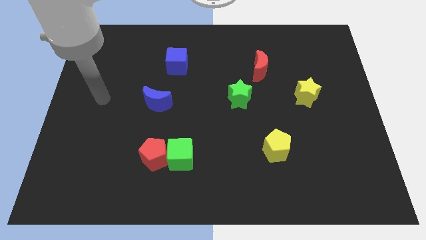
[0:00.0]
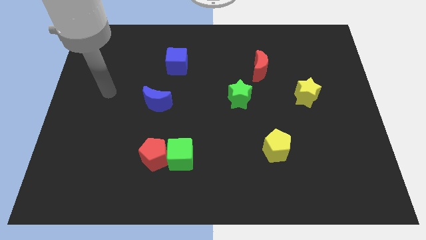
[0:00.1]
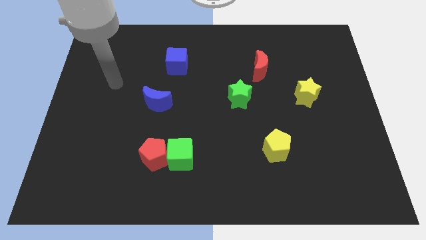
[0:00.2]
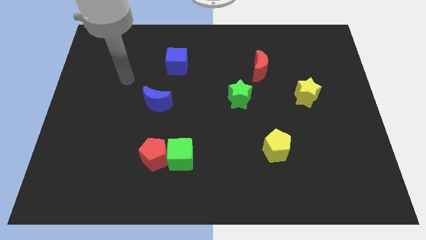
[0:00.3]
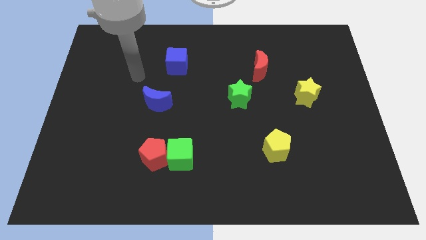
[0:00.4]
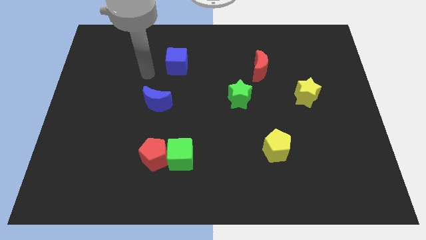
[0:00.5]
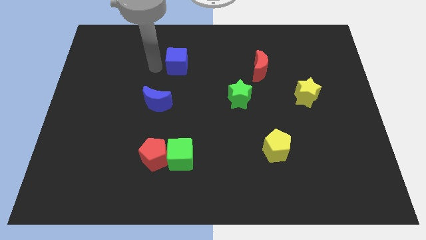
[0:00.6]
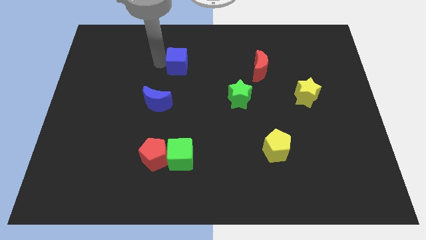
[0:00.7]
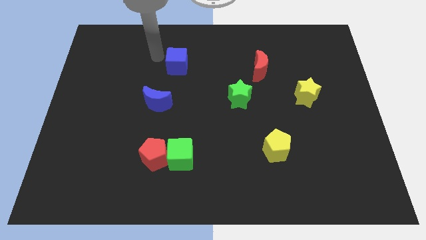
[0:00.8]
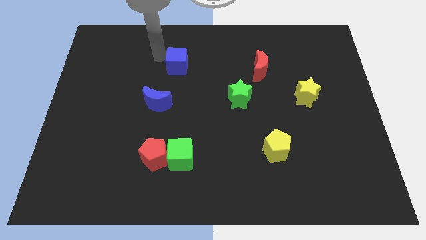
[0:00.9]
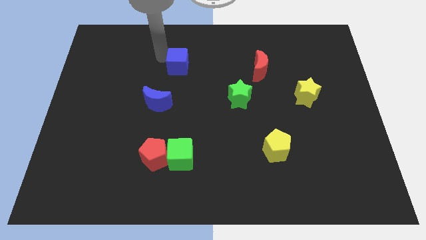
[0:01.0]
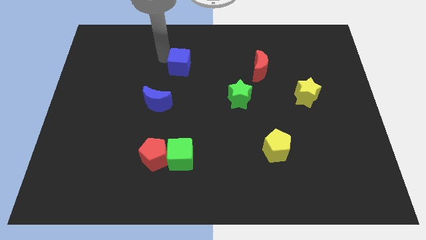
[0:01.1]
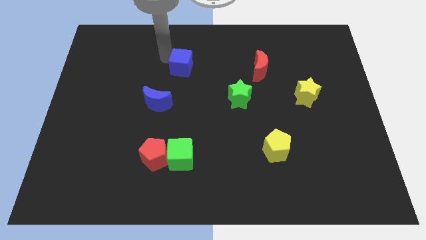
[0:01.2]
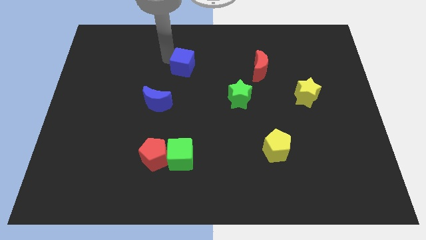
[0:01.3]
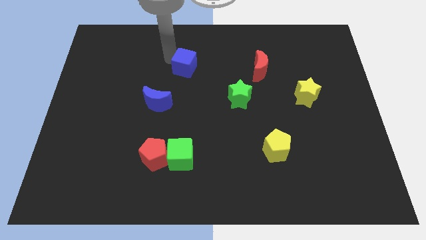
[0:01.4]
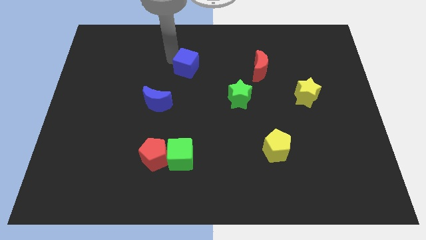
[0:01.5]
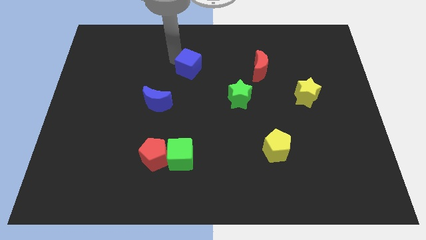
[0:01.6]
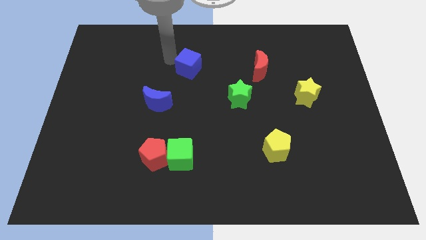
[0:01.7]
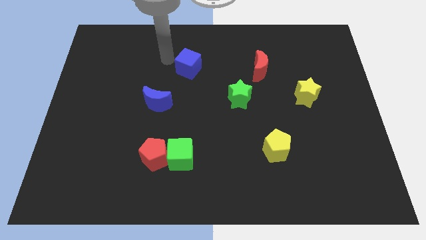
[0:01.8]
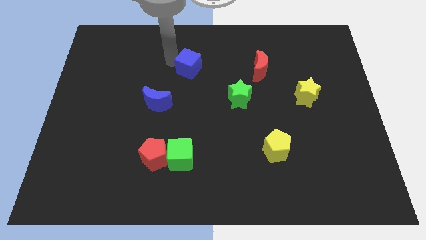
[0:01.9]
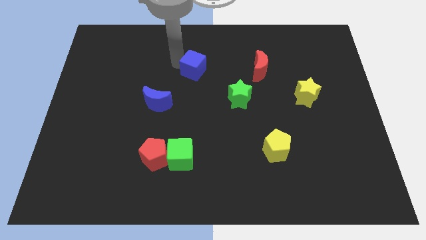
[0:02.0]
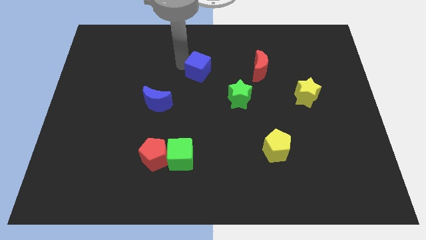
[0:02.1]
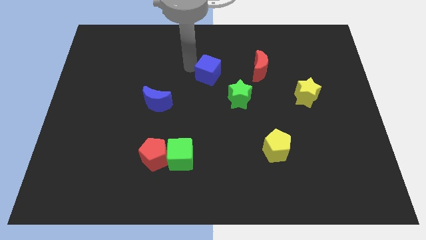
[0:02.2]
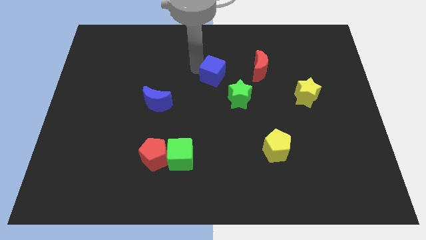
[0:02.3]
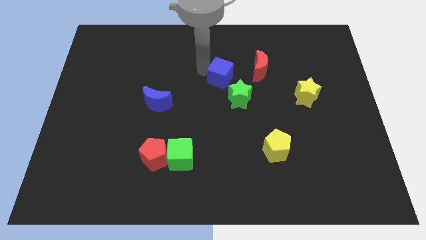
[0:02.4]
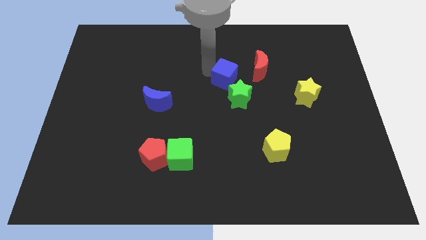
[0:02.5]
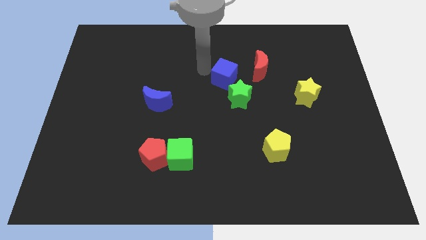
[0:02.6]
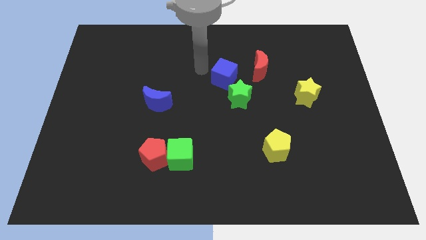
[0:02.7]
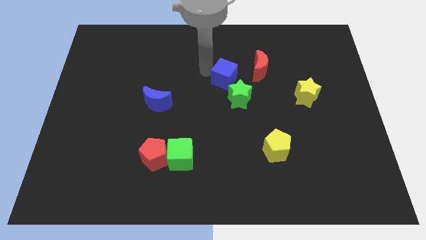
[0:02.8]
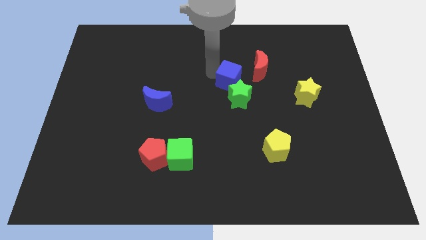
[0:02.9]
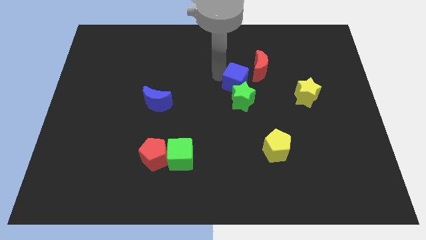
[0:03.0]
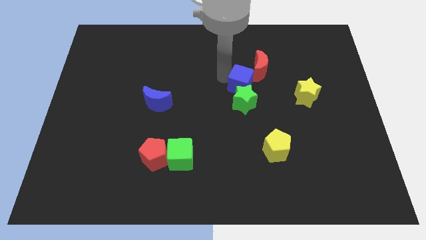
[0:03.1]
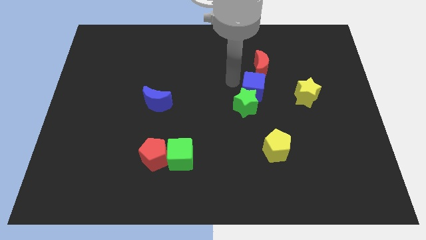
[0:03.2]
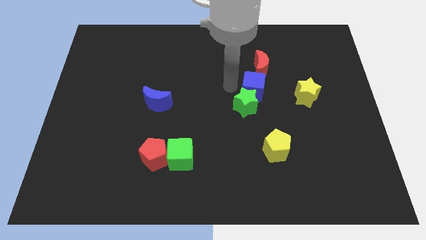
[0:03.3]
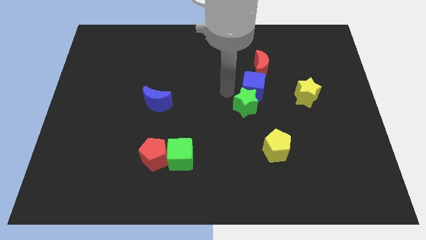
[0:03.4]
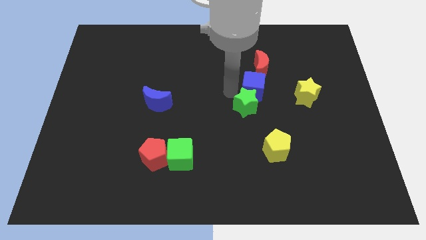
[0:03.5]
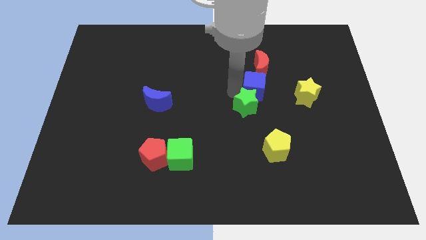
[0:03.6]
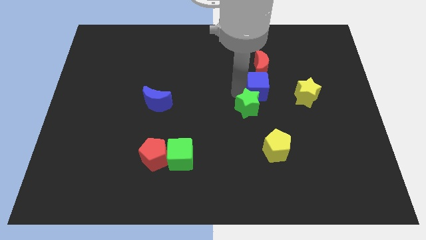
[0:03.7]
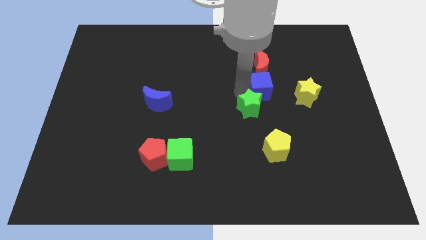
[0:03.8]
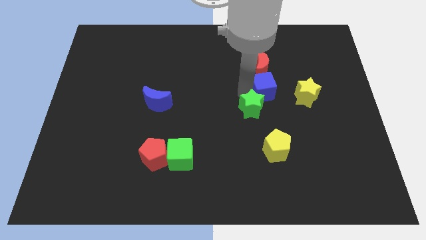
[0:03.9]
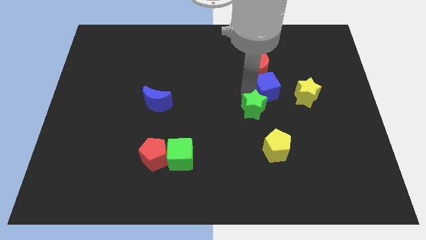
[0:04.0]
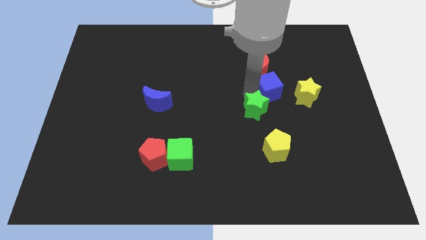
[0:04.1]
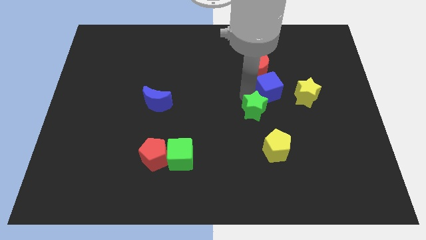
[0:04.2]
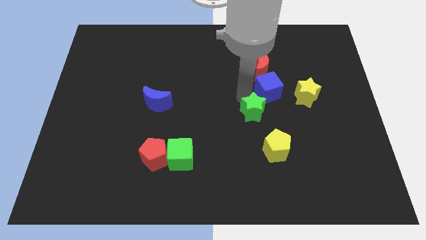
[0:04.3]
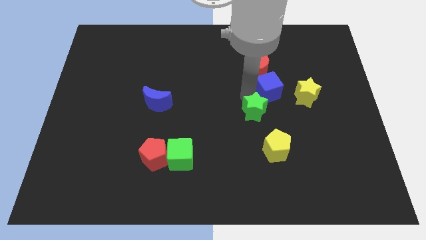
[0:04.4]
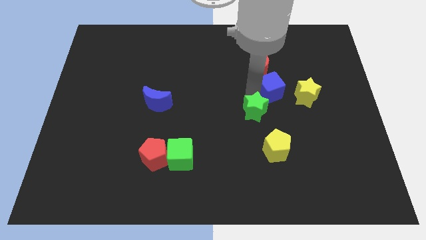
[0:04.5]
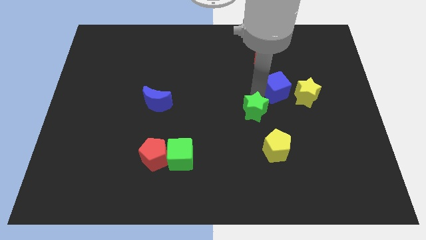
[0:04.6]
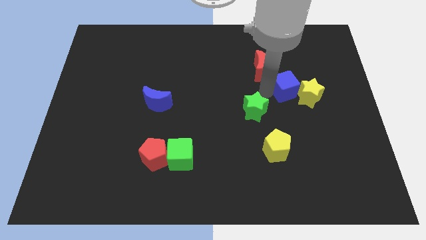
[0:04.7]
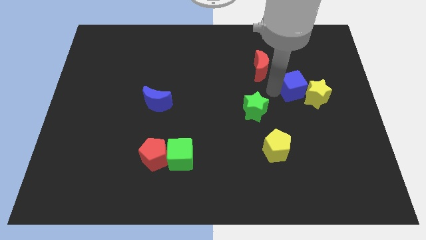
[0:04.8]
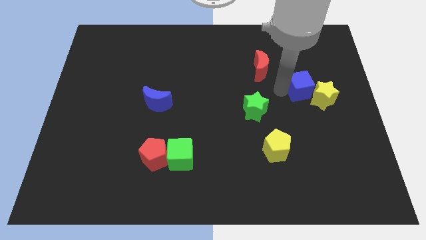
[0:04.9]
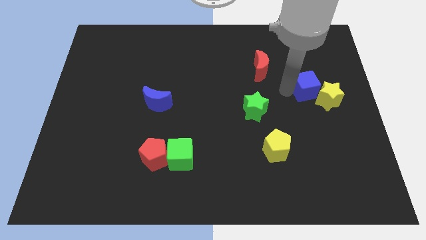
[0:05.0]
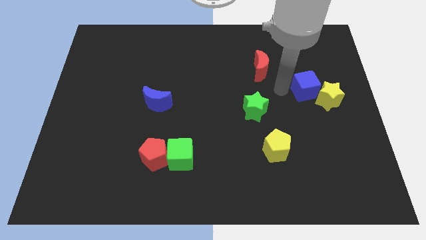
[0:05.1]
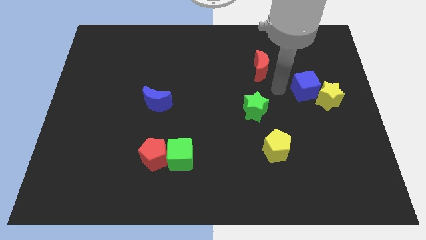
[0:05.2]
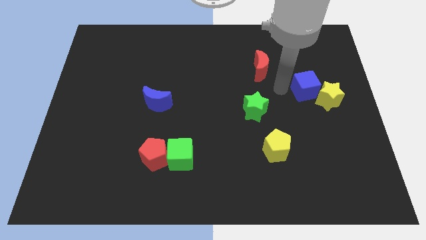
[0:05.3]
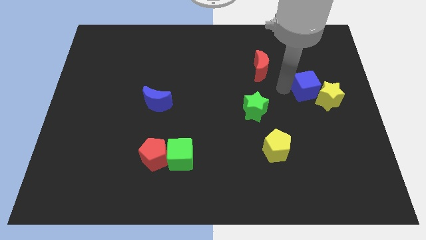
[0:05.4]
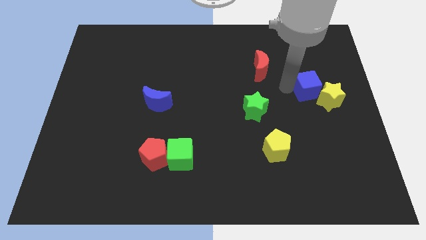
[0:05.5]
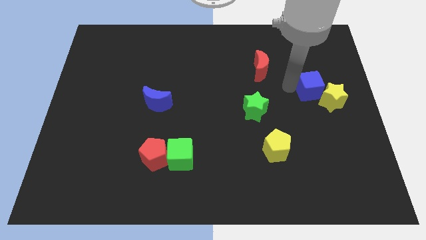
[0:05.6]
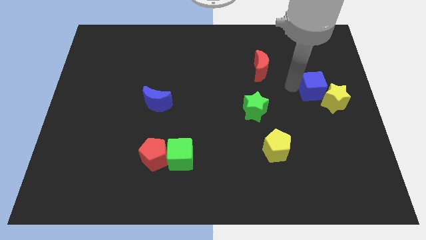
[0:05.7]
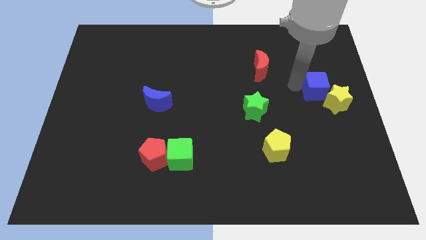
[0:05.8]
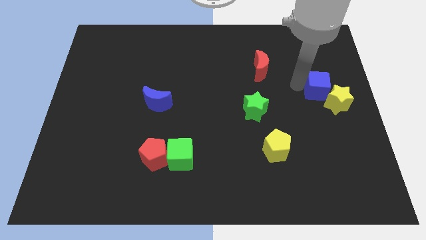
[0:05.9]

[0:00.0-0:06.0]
push the blue cube to the center right

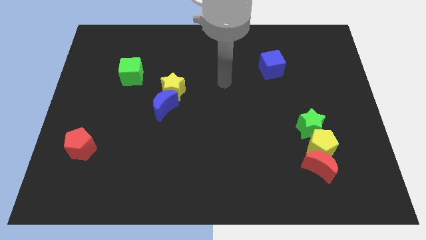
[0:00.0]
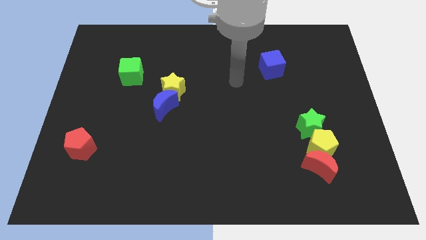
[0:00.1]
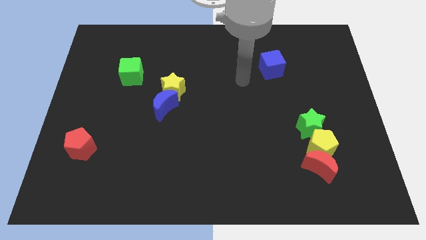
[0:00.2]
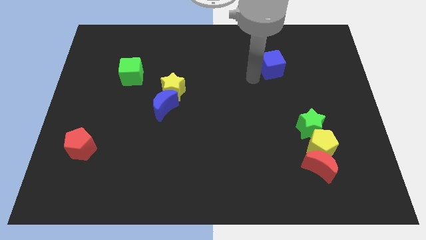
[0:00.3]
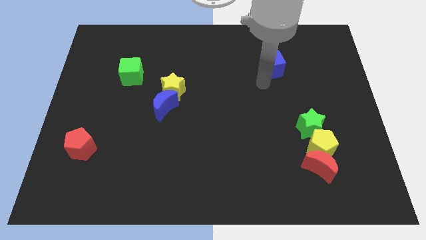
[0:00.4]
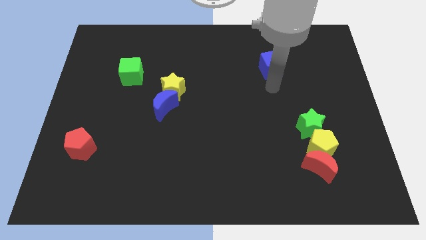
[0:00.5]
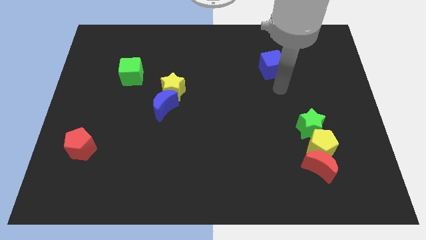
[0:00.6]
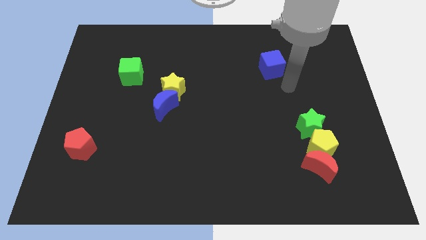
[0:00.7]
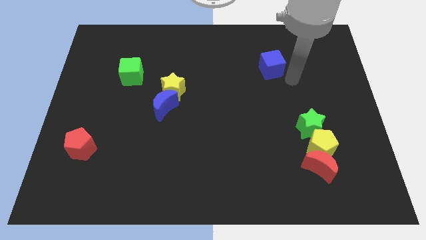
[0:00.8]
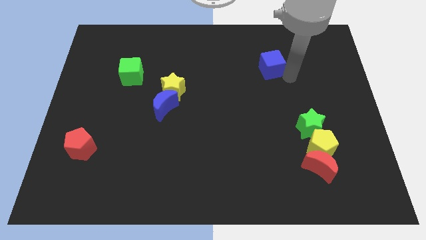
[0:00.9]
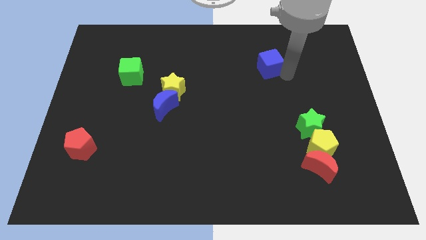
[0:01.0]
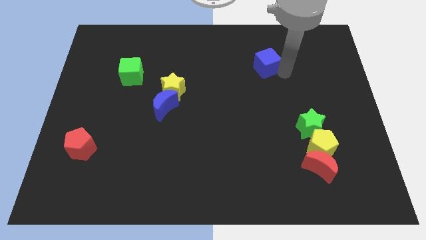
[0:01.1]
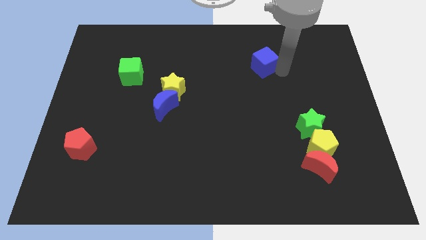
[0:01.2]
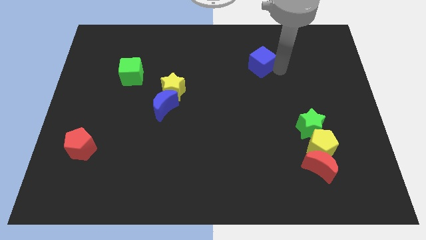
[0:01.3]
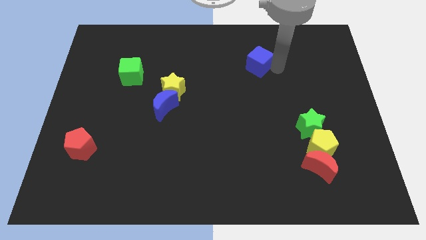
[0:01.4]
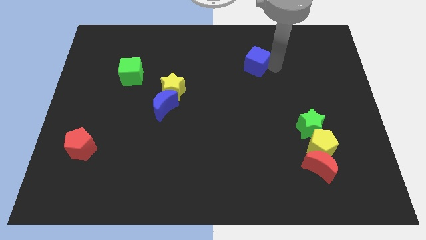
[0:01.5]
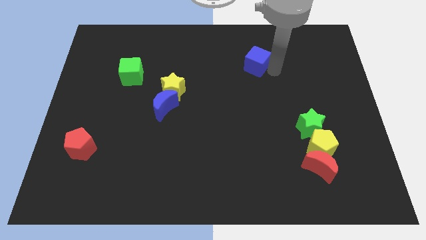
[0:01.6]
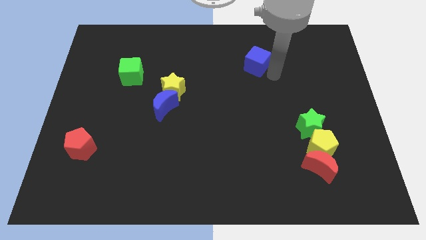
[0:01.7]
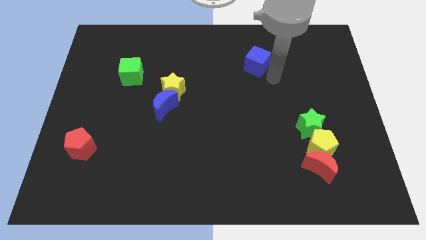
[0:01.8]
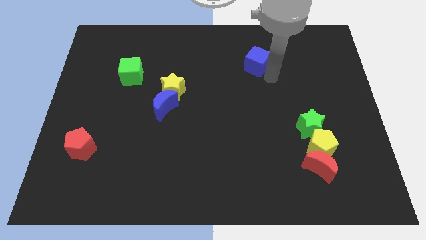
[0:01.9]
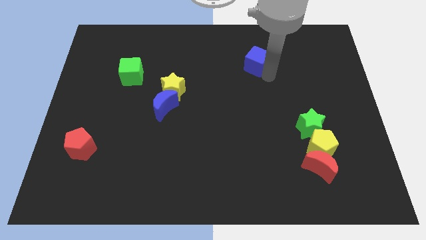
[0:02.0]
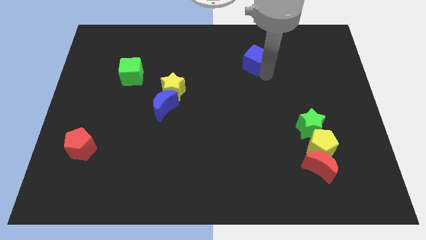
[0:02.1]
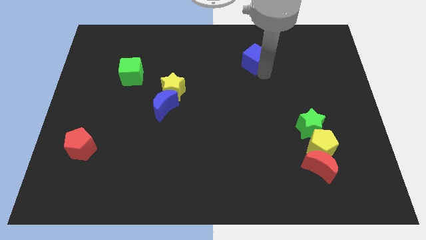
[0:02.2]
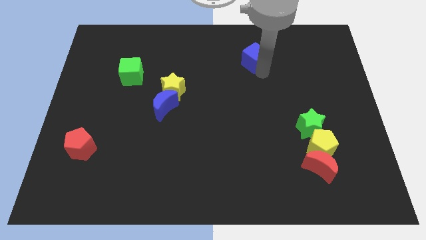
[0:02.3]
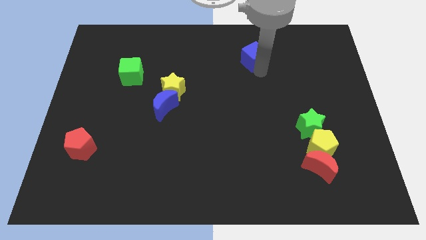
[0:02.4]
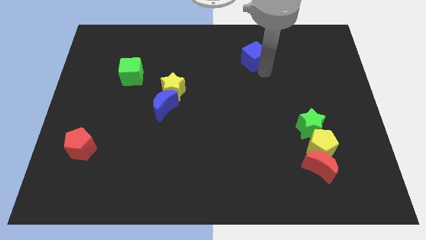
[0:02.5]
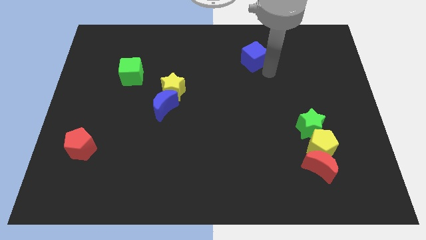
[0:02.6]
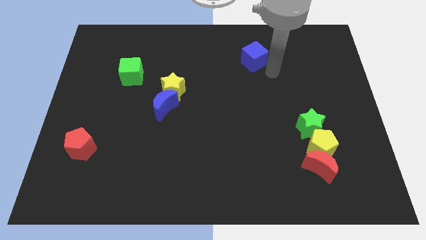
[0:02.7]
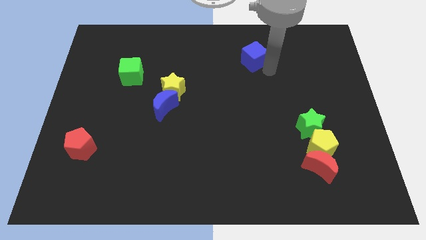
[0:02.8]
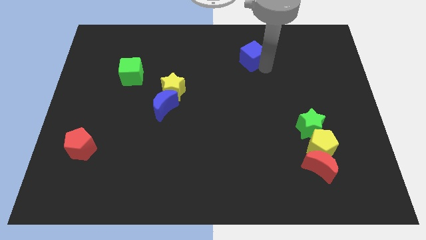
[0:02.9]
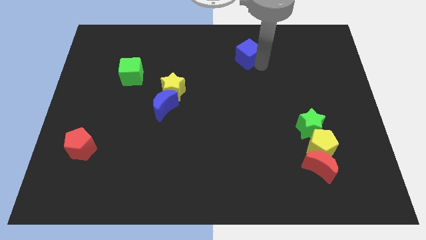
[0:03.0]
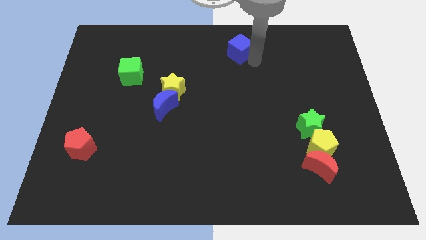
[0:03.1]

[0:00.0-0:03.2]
slide the blue cube to the towards your base
